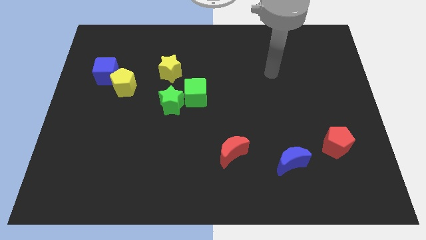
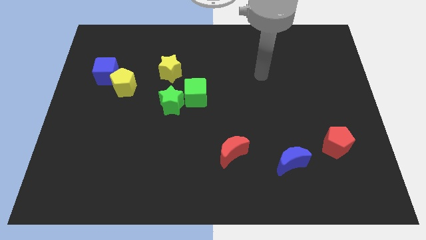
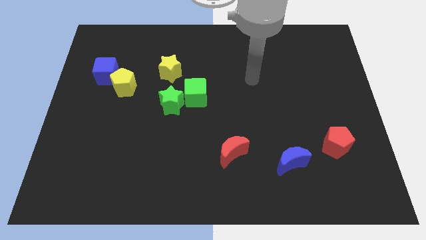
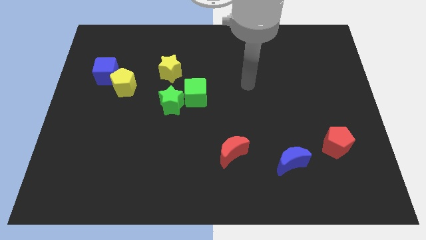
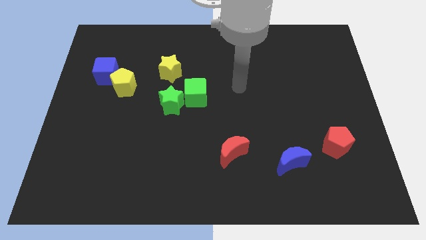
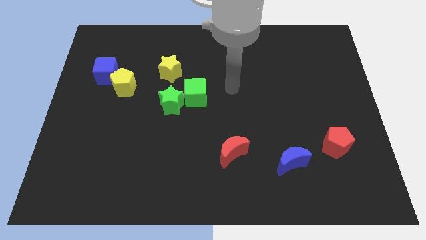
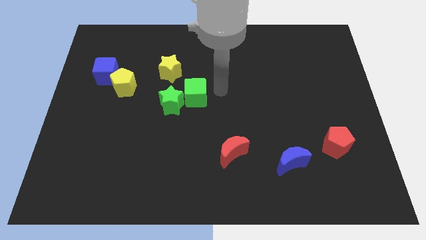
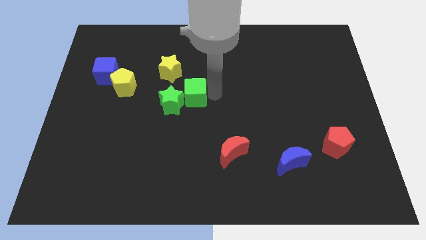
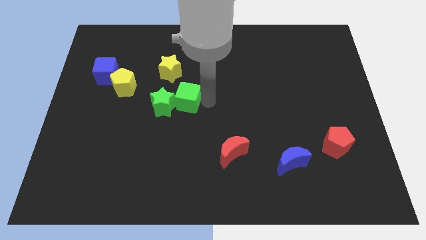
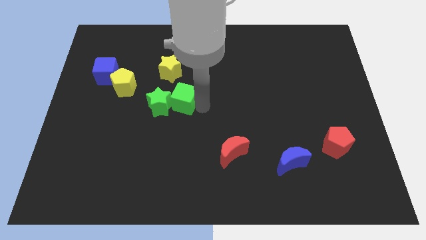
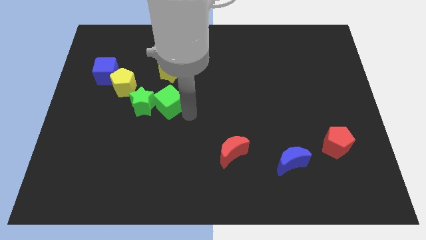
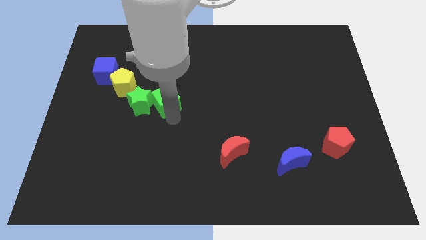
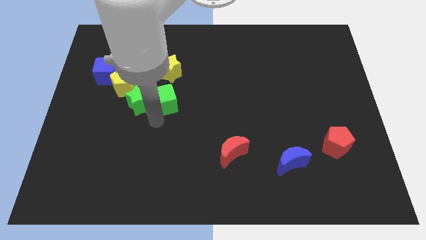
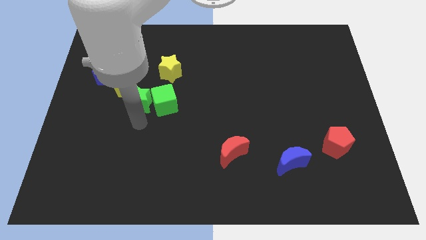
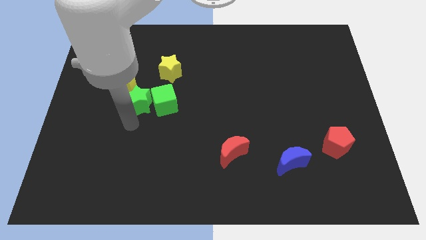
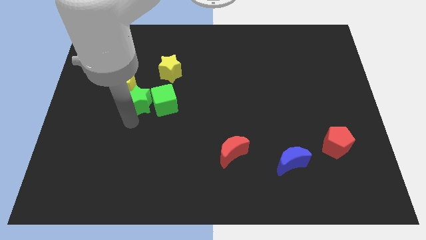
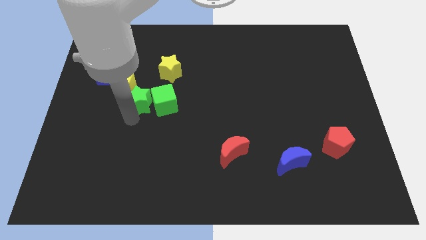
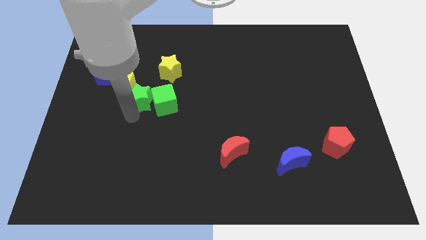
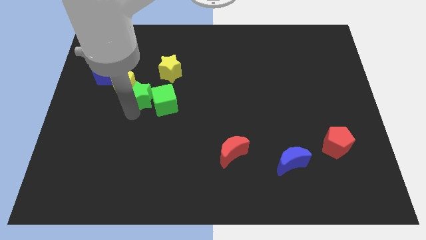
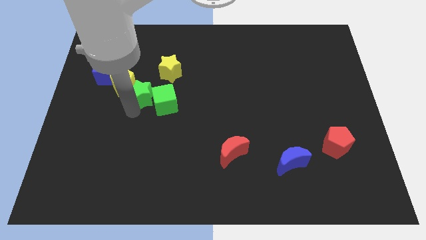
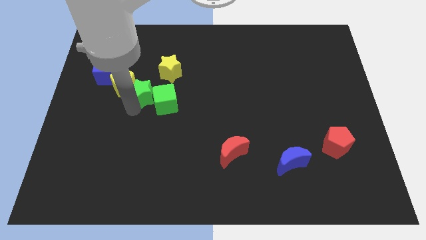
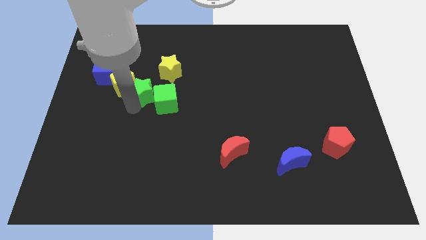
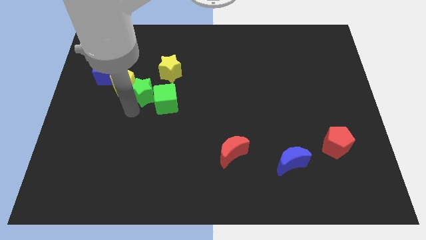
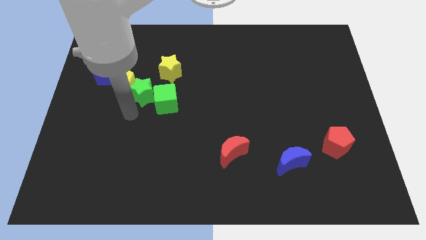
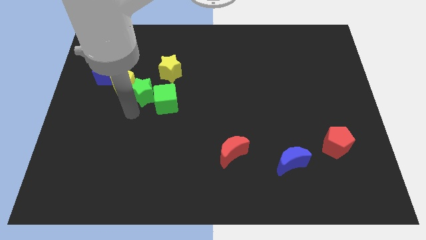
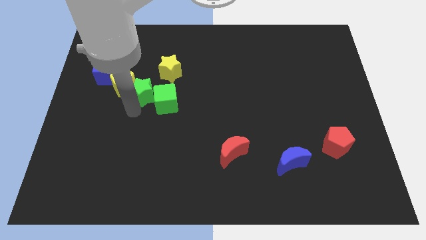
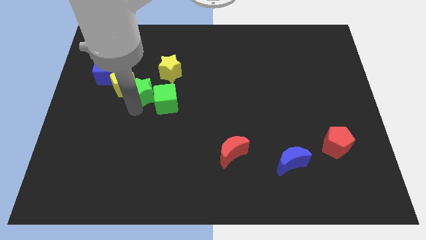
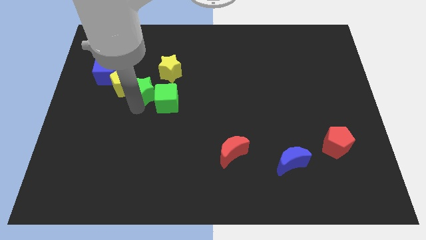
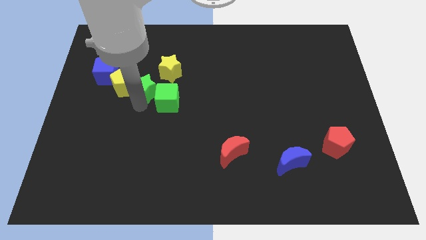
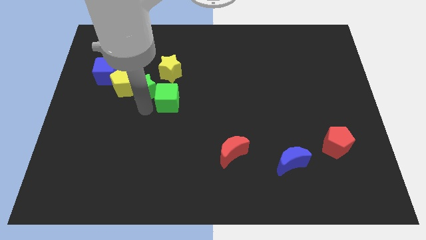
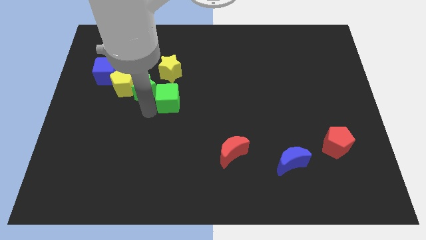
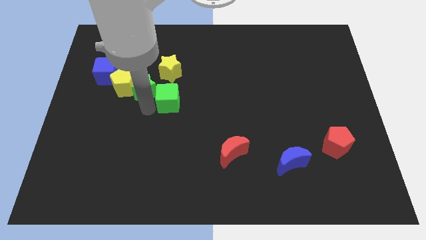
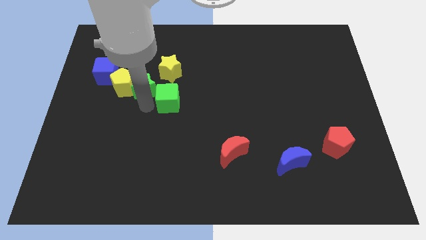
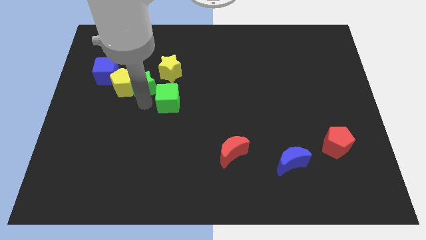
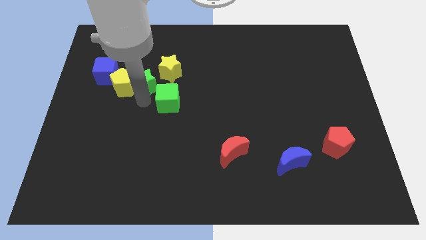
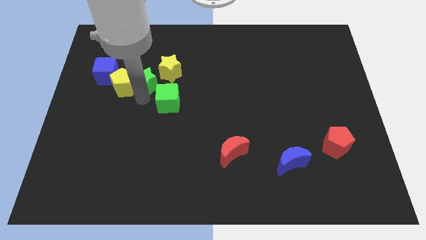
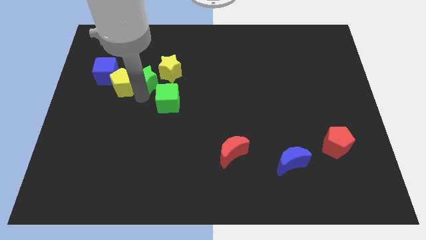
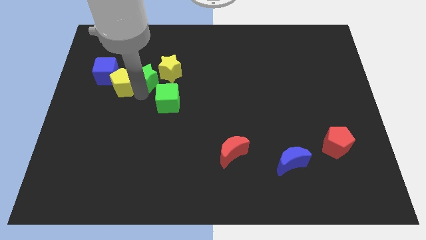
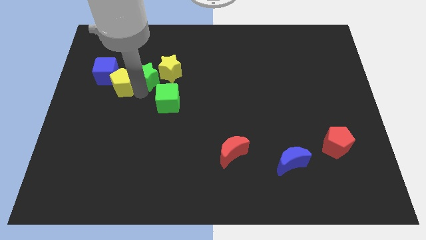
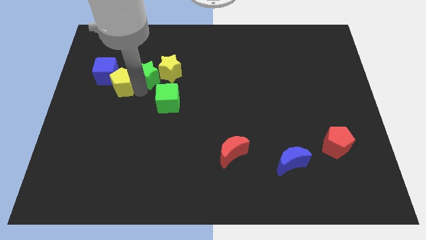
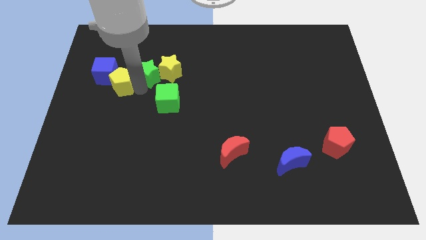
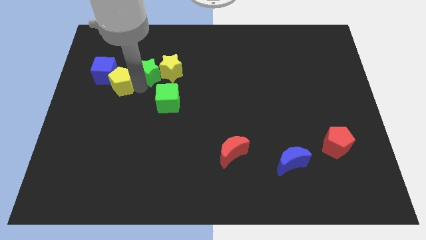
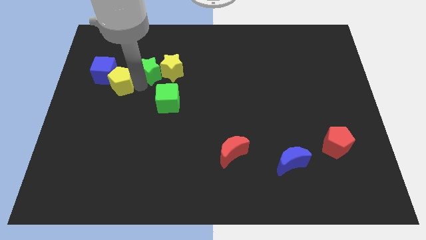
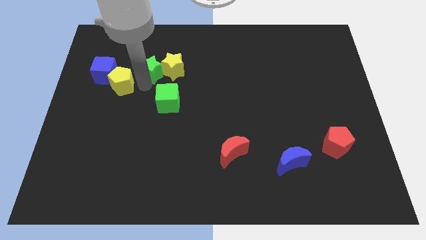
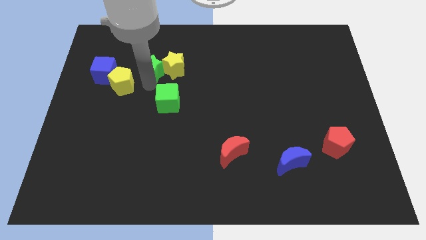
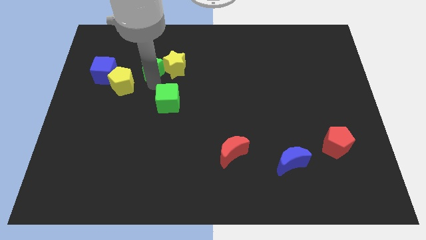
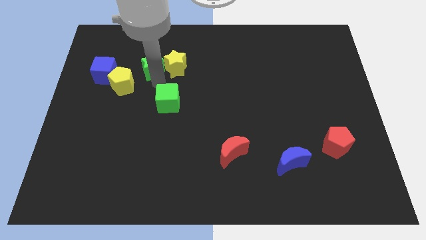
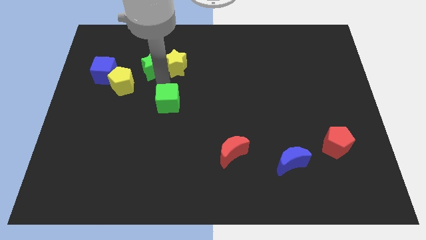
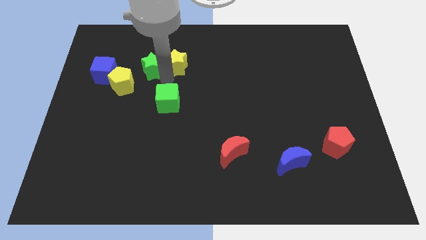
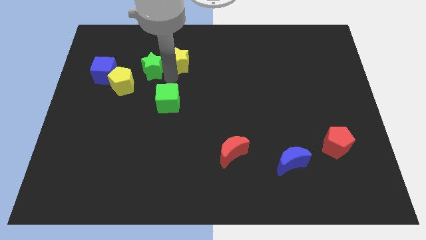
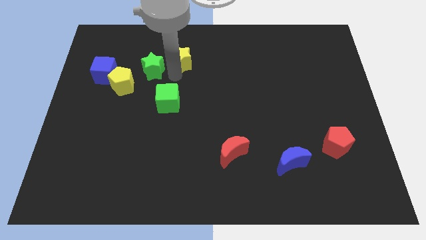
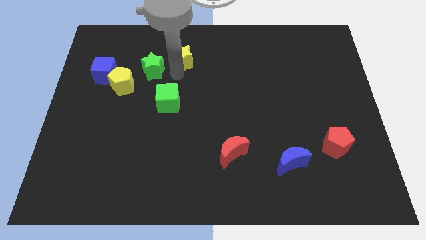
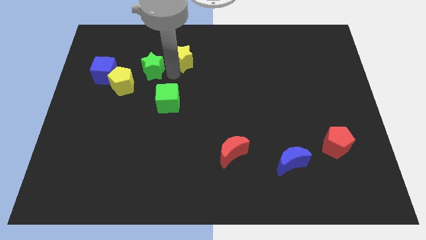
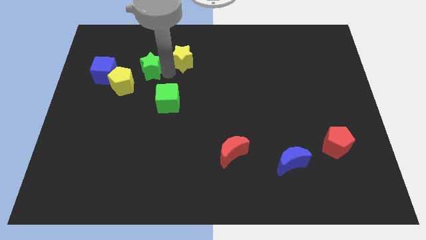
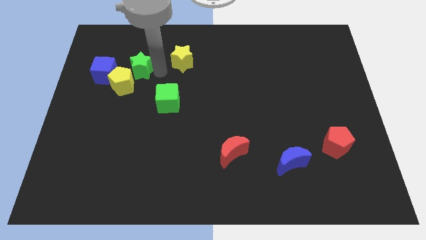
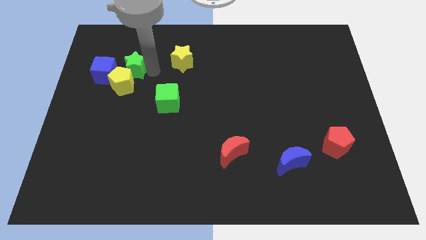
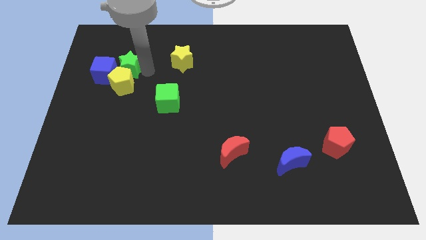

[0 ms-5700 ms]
slide the green star to the top left of the yellow pentagon

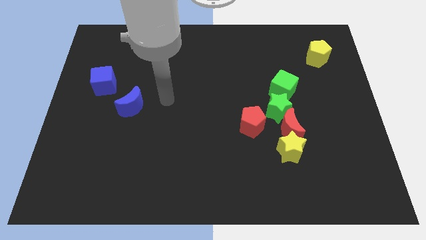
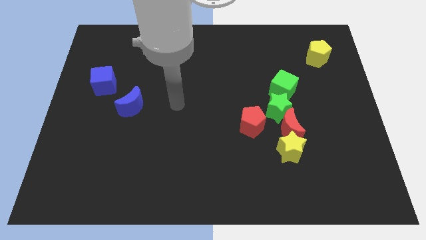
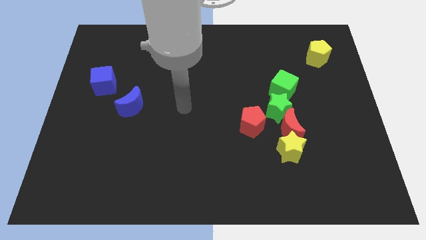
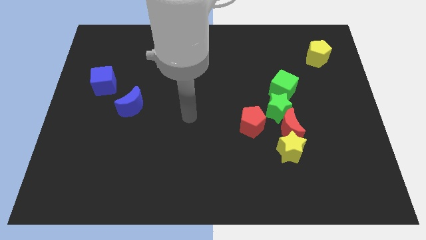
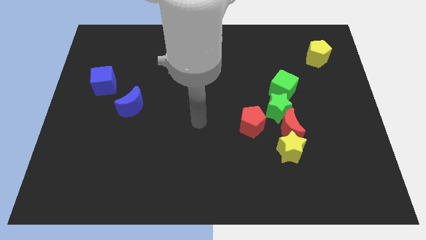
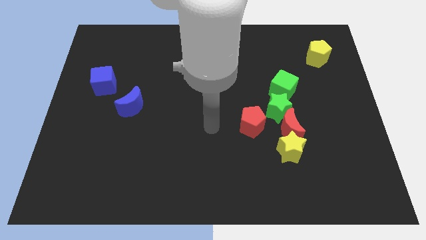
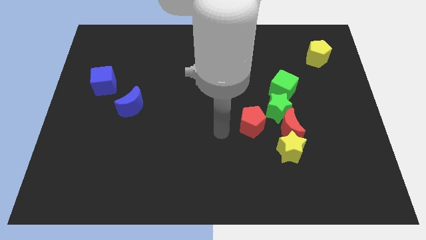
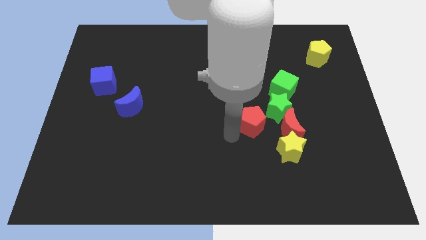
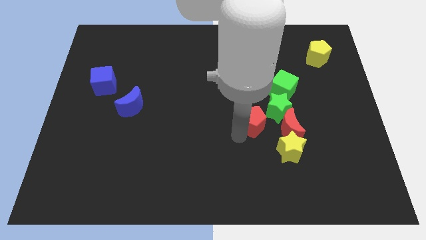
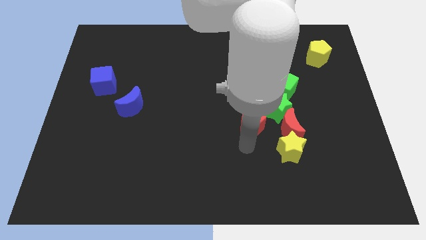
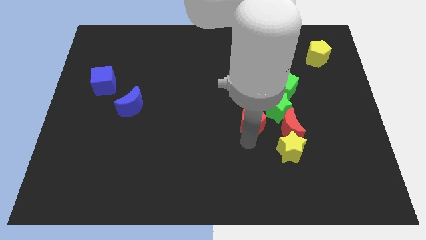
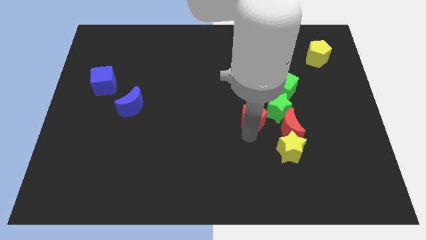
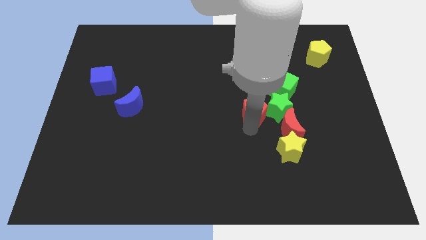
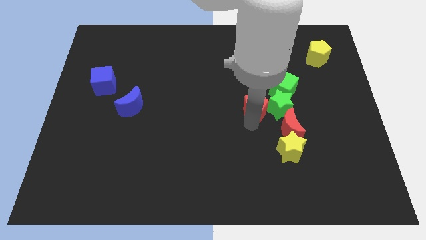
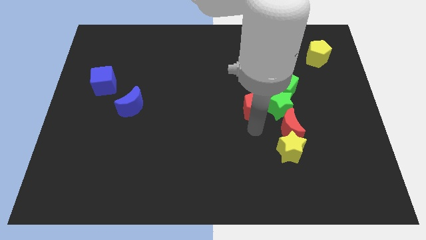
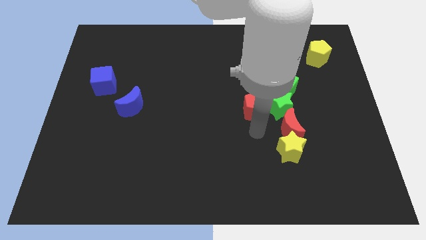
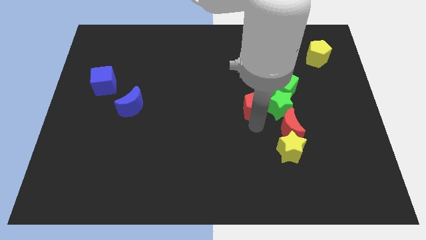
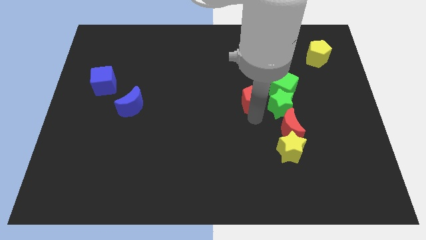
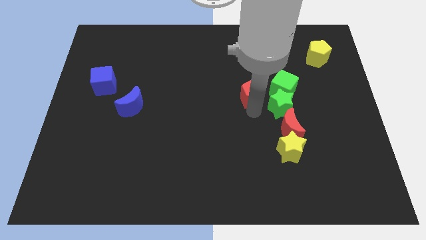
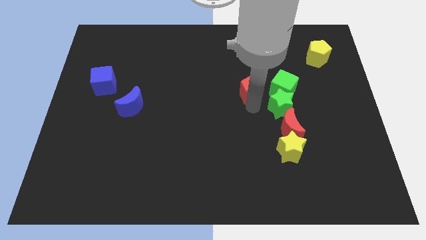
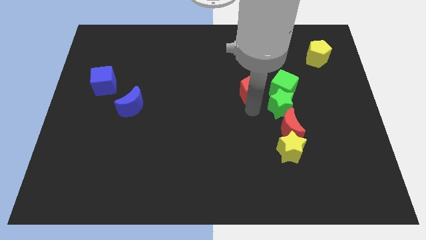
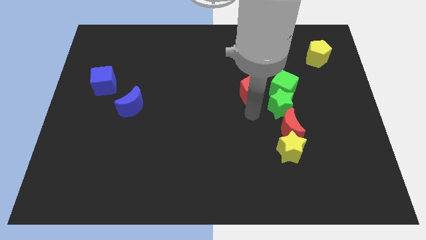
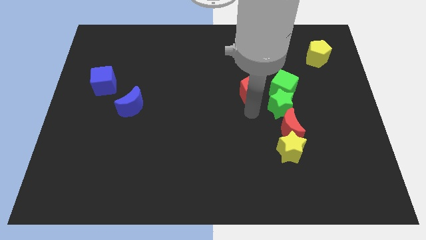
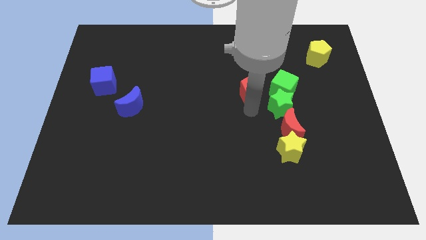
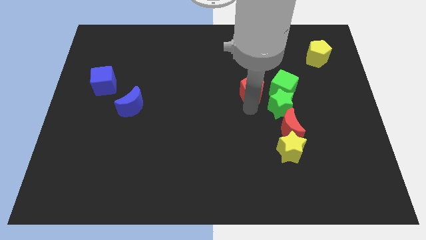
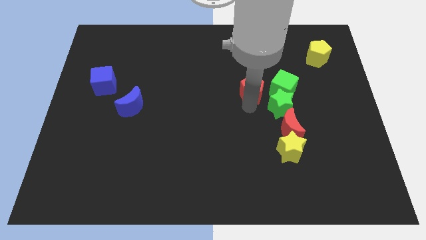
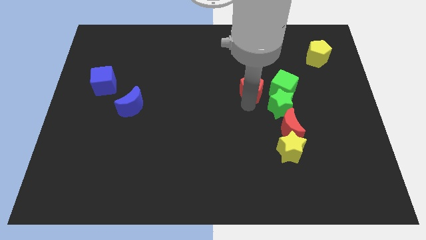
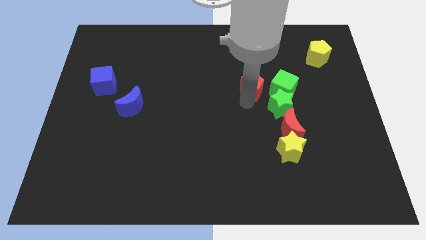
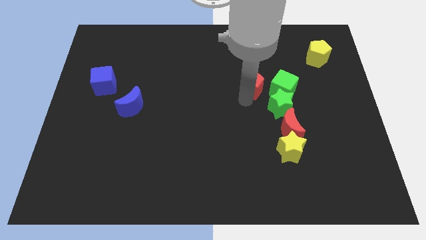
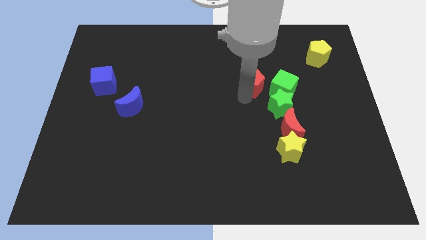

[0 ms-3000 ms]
push the red pentagon to the top left of the green cube
